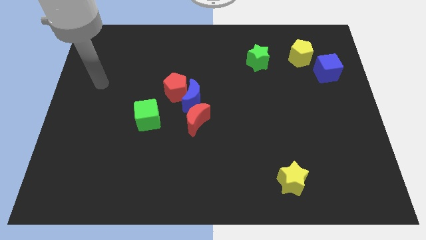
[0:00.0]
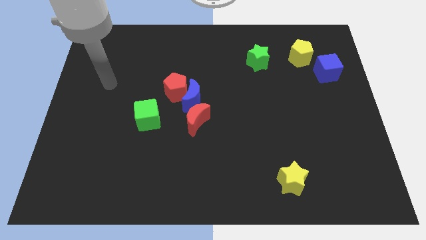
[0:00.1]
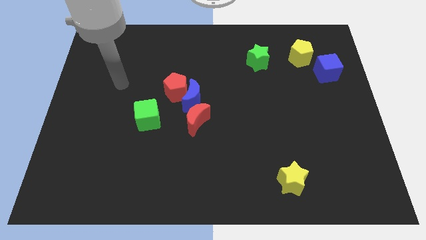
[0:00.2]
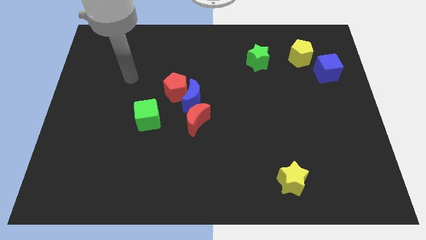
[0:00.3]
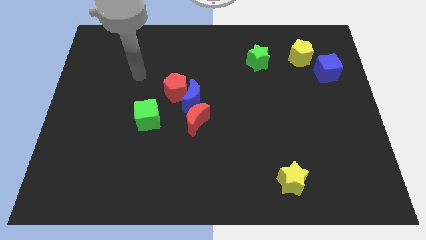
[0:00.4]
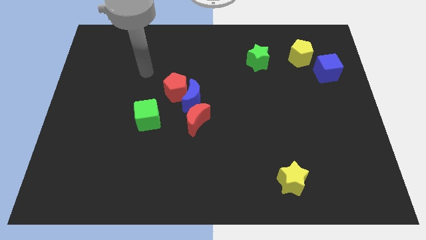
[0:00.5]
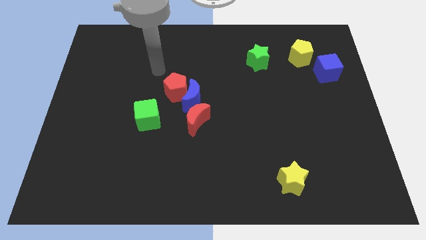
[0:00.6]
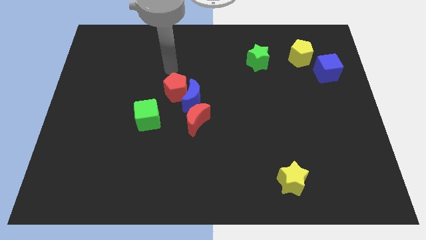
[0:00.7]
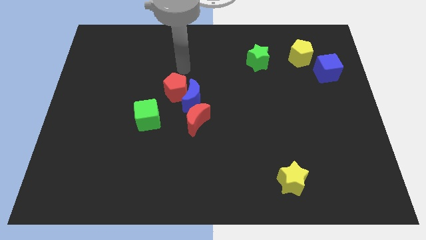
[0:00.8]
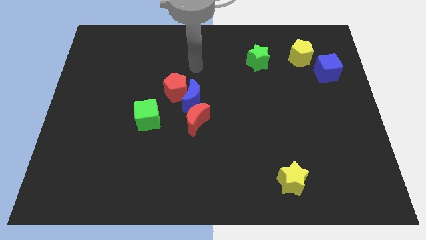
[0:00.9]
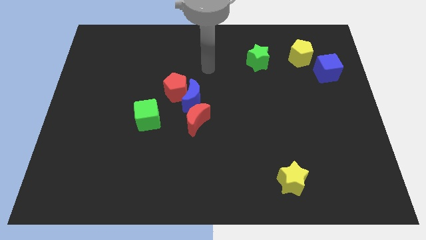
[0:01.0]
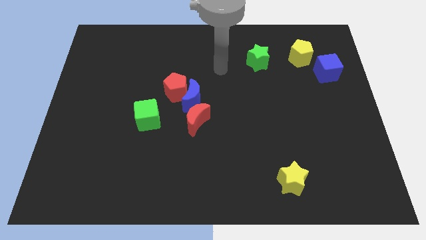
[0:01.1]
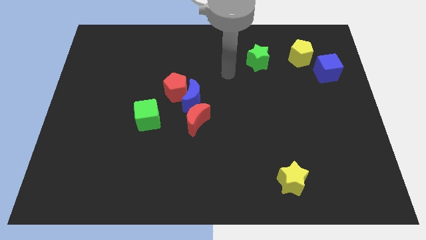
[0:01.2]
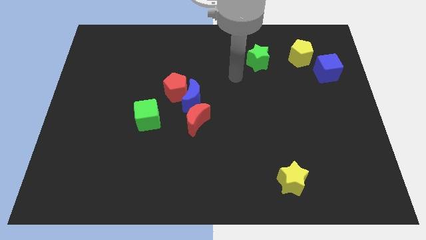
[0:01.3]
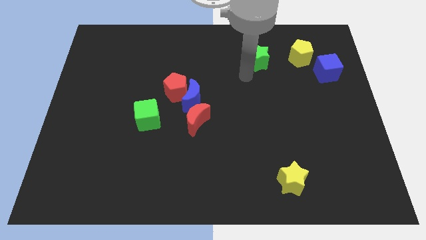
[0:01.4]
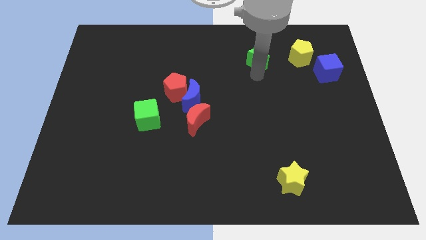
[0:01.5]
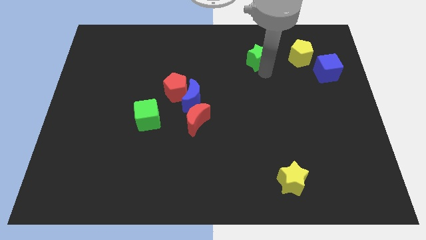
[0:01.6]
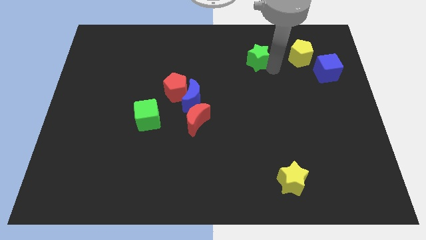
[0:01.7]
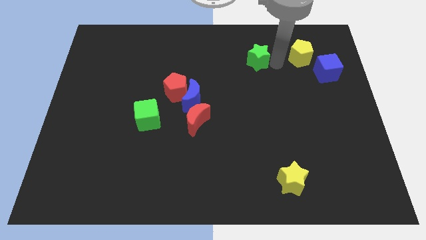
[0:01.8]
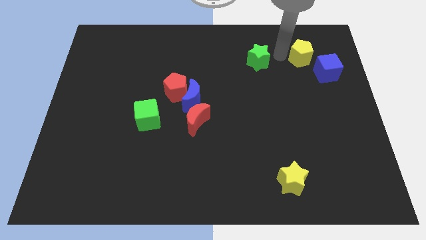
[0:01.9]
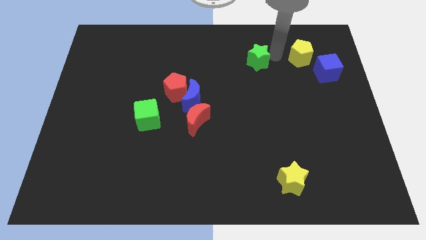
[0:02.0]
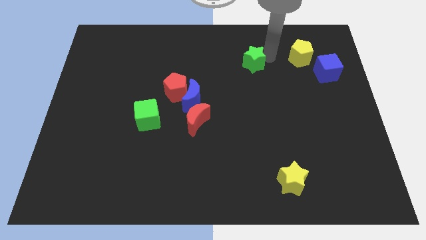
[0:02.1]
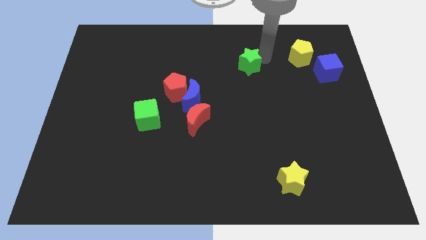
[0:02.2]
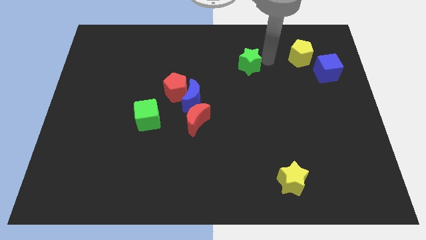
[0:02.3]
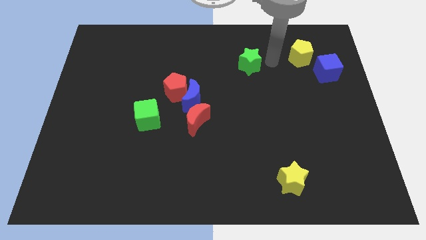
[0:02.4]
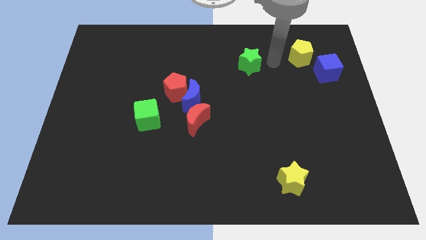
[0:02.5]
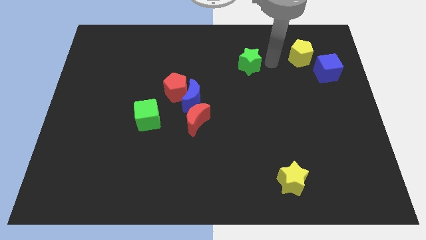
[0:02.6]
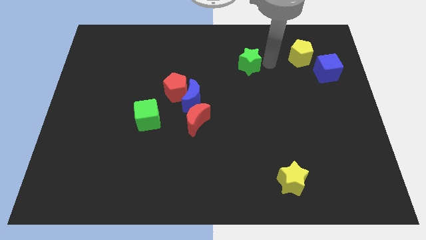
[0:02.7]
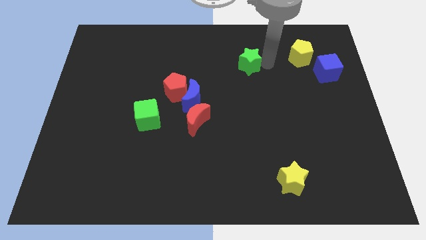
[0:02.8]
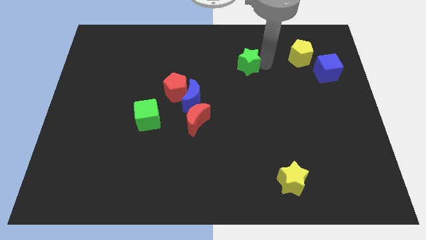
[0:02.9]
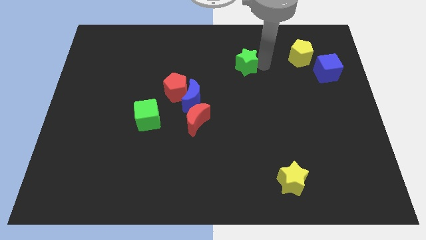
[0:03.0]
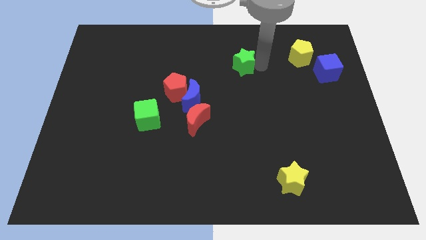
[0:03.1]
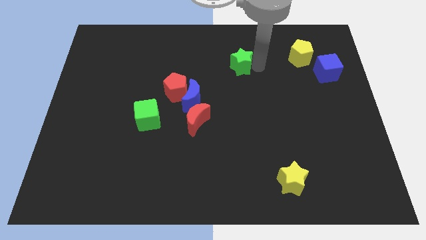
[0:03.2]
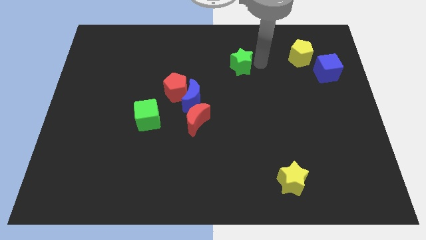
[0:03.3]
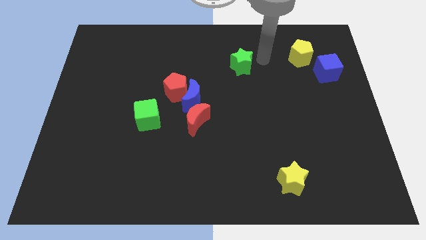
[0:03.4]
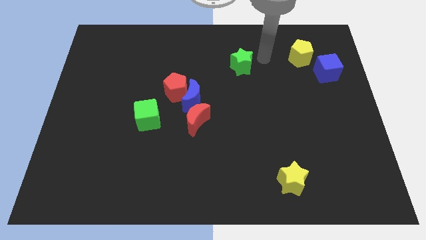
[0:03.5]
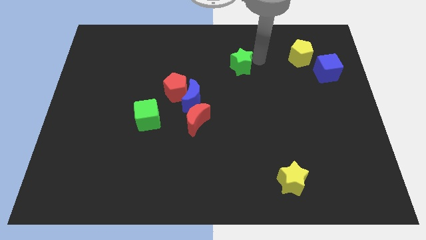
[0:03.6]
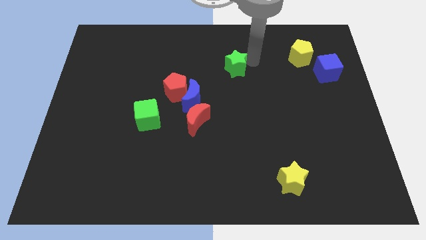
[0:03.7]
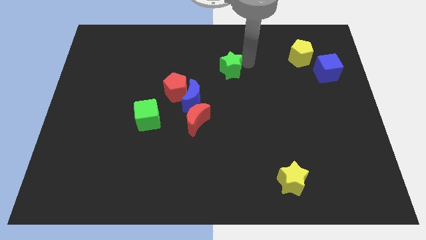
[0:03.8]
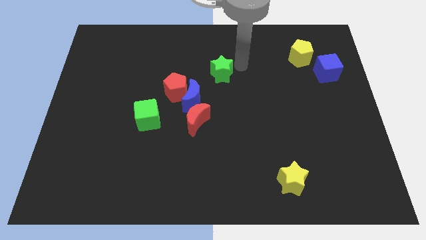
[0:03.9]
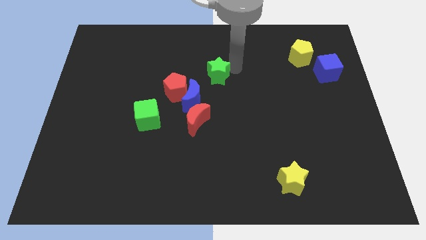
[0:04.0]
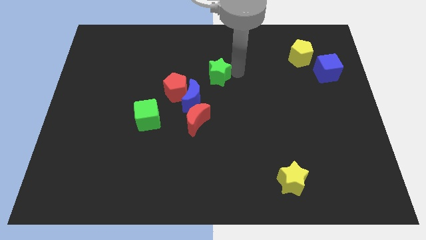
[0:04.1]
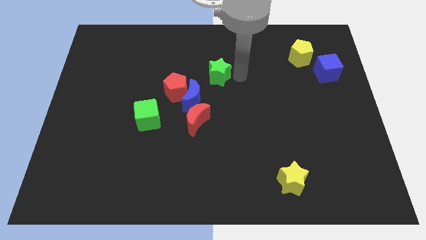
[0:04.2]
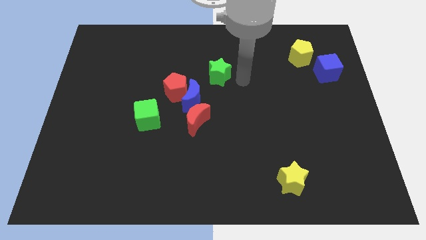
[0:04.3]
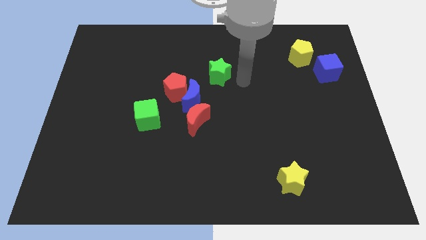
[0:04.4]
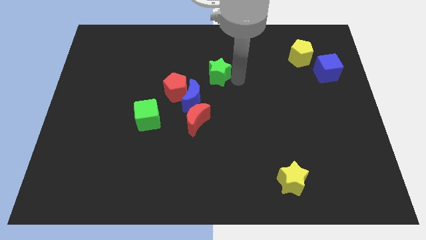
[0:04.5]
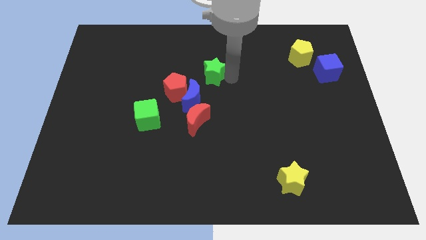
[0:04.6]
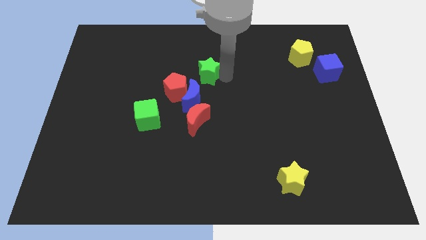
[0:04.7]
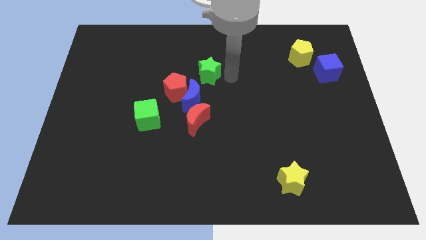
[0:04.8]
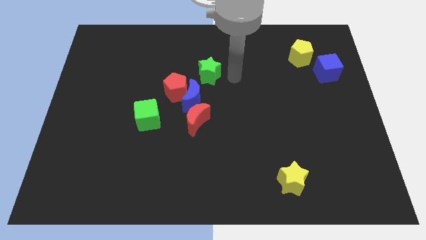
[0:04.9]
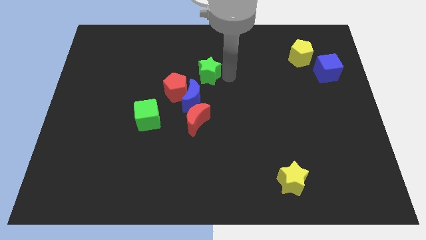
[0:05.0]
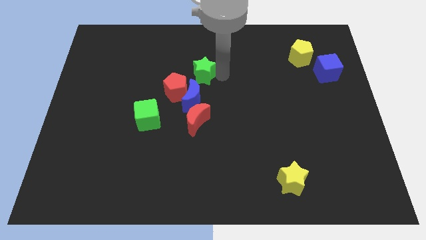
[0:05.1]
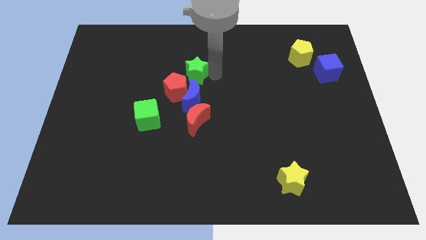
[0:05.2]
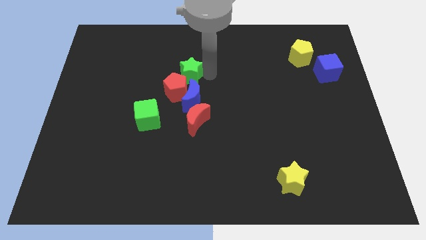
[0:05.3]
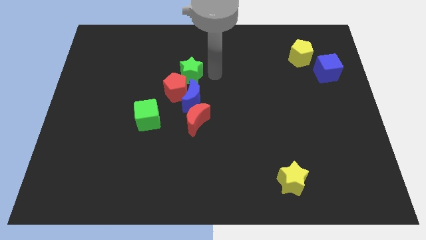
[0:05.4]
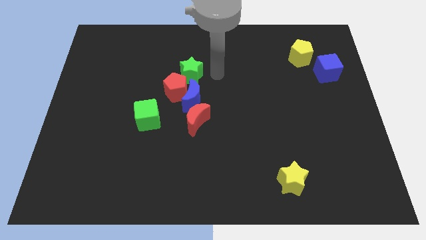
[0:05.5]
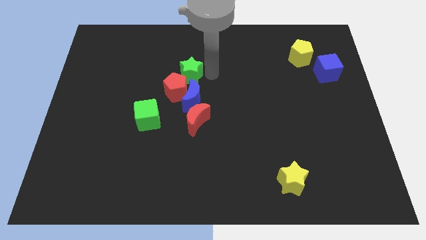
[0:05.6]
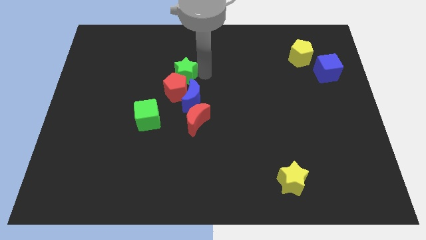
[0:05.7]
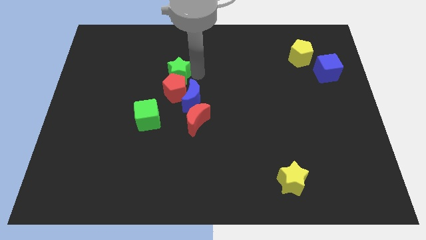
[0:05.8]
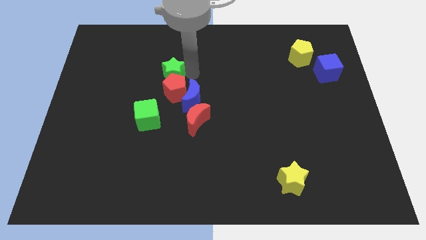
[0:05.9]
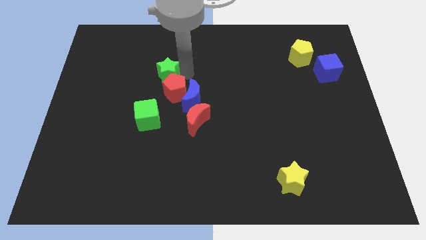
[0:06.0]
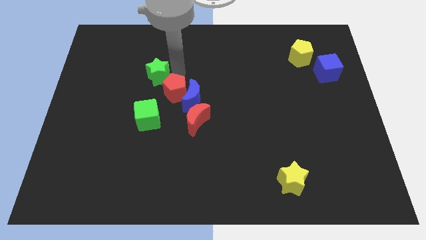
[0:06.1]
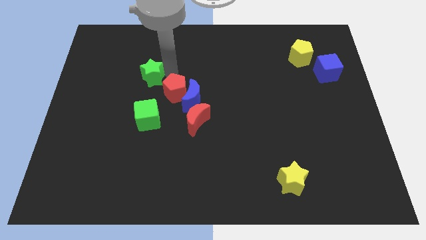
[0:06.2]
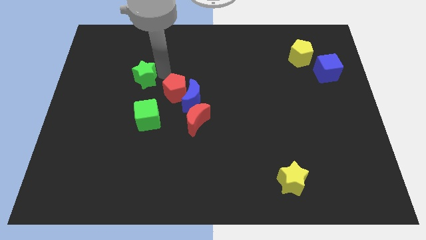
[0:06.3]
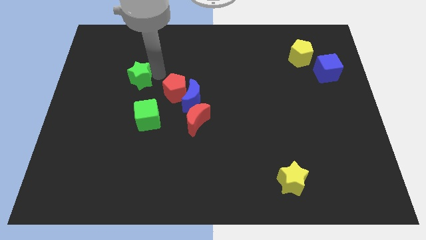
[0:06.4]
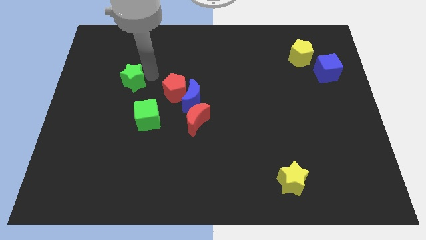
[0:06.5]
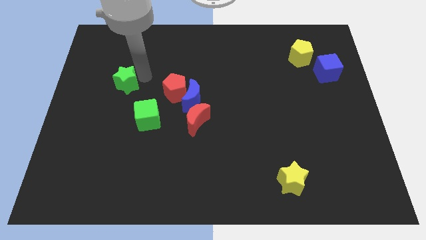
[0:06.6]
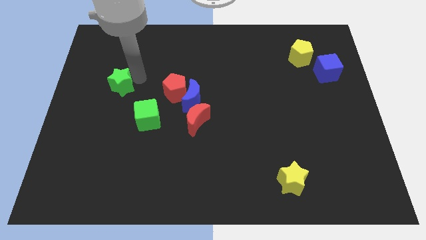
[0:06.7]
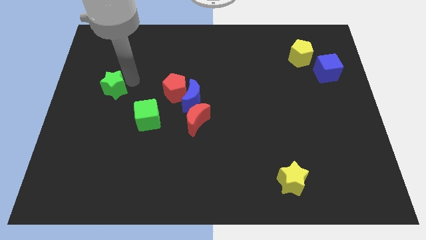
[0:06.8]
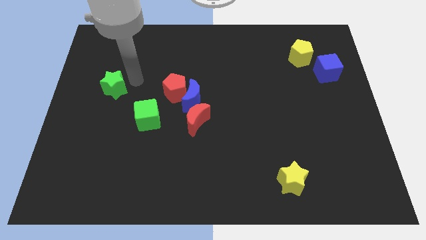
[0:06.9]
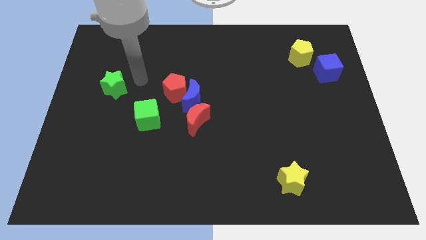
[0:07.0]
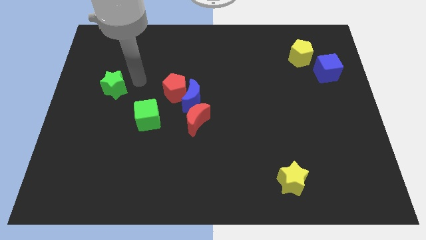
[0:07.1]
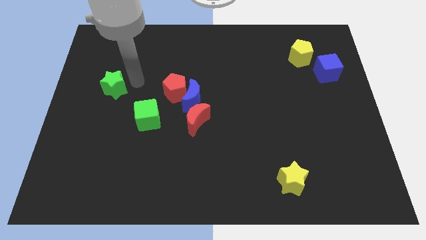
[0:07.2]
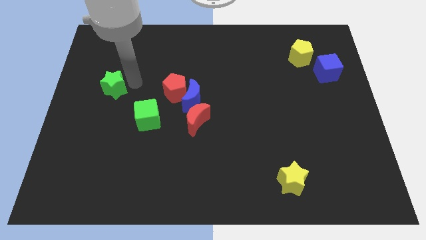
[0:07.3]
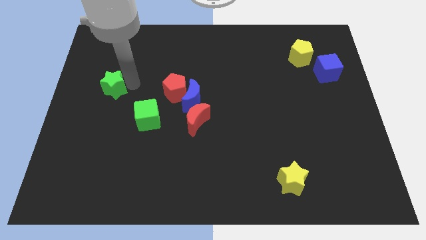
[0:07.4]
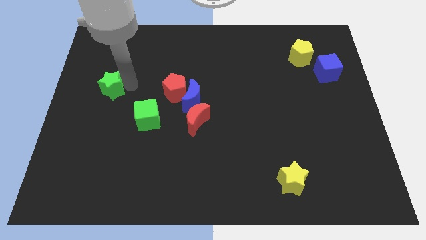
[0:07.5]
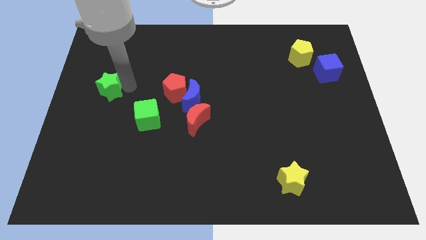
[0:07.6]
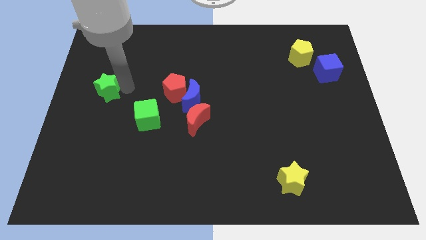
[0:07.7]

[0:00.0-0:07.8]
put the green star to the left side
